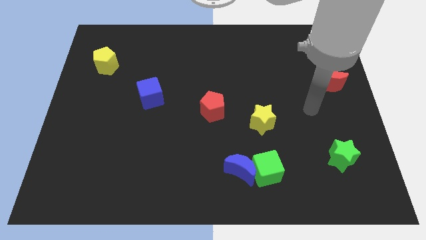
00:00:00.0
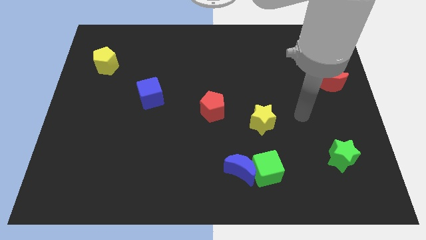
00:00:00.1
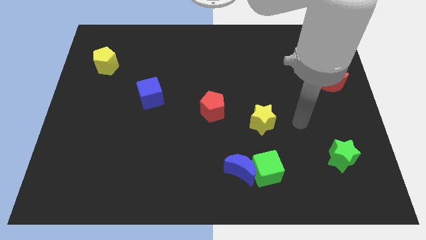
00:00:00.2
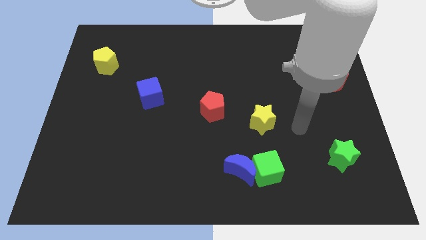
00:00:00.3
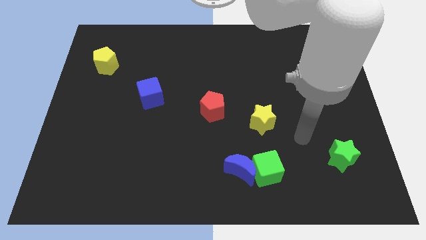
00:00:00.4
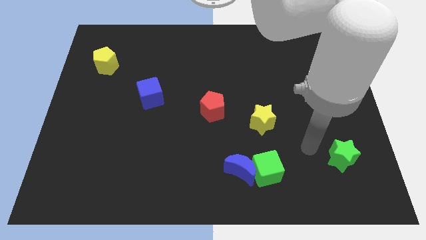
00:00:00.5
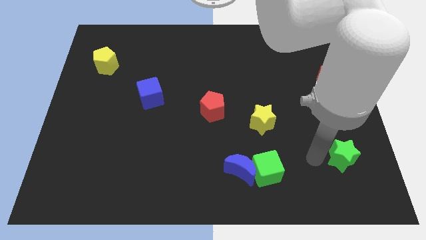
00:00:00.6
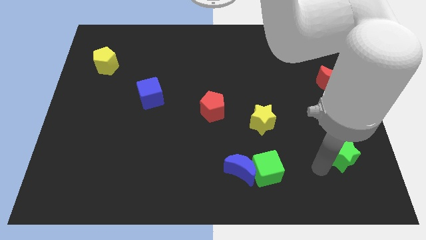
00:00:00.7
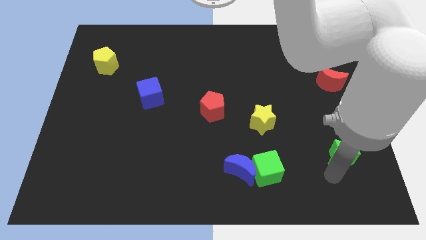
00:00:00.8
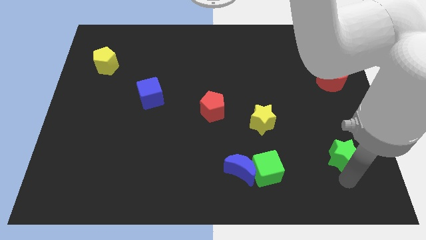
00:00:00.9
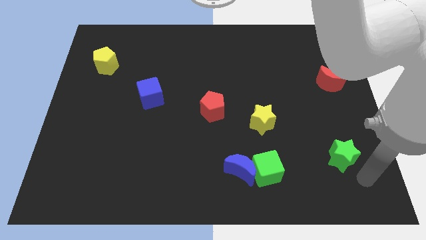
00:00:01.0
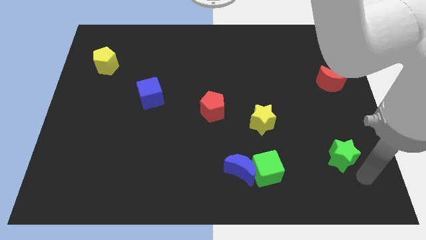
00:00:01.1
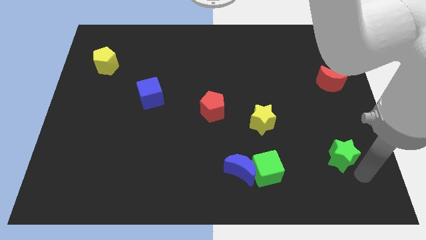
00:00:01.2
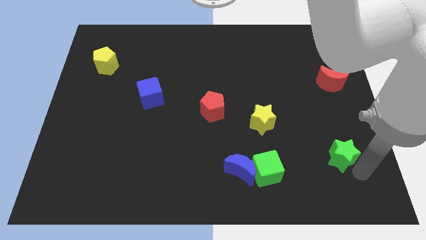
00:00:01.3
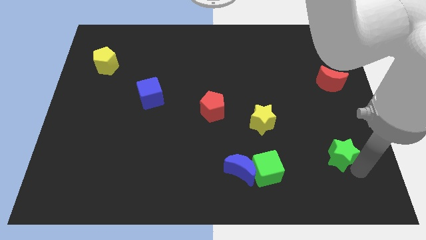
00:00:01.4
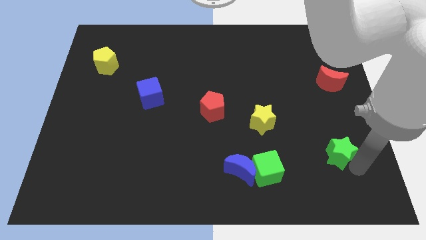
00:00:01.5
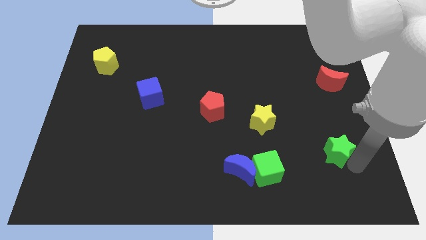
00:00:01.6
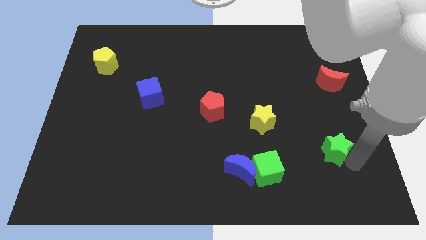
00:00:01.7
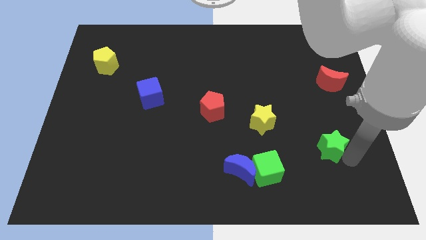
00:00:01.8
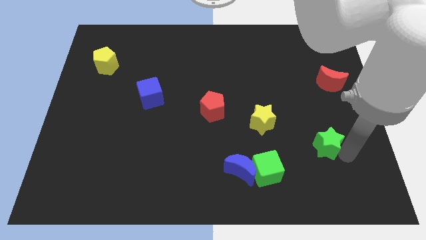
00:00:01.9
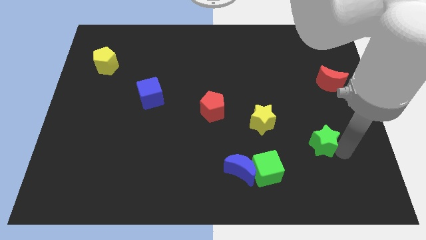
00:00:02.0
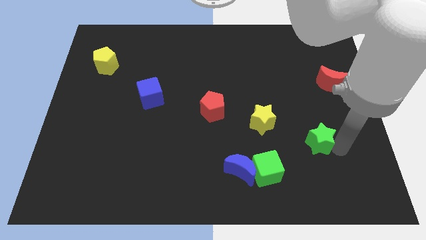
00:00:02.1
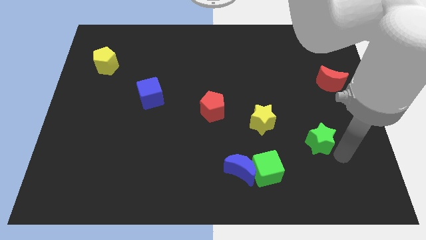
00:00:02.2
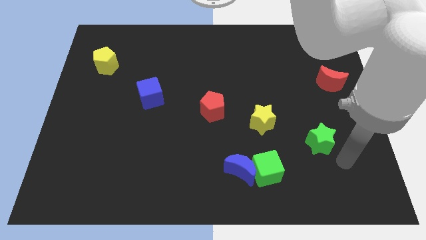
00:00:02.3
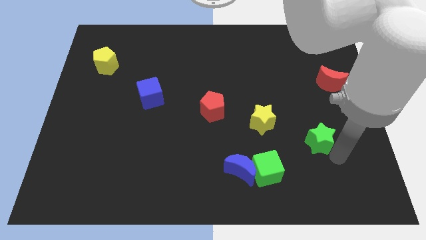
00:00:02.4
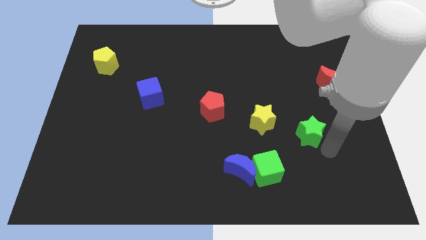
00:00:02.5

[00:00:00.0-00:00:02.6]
push the green star up and to the left diagonally a little

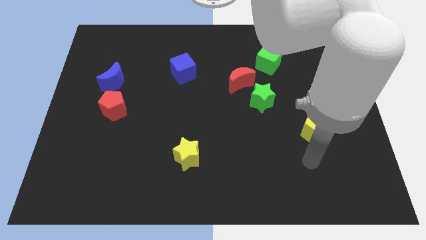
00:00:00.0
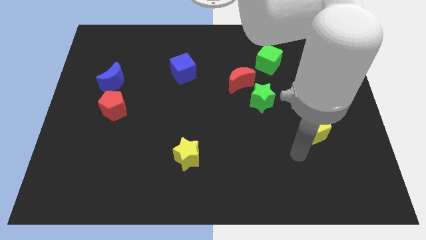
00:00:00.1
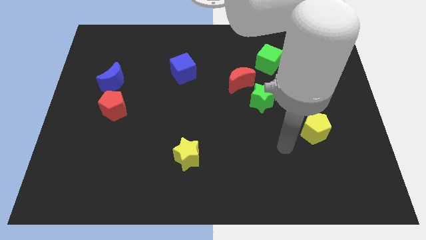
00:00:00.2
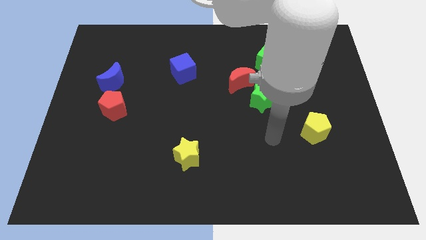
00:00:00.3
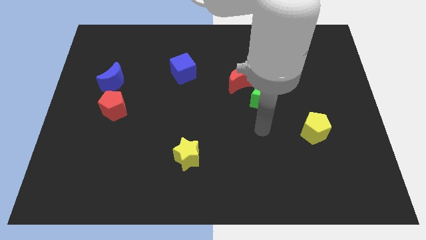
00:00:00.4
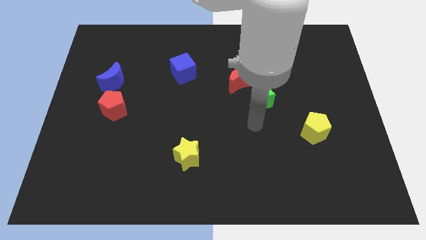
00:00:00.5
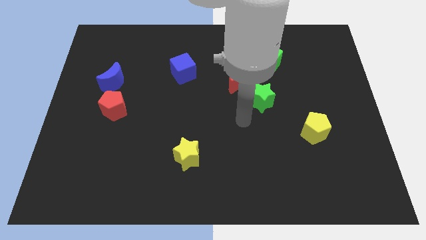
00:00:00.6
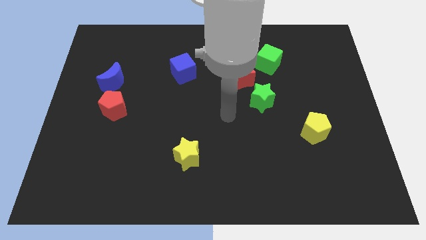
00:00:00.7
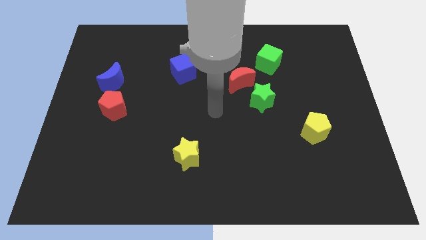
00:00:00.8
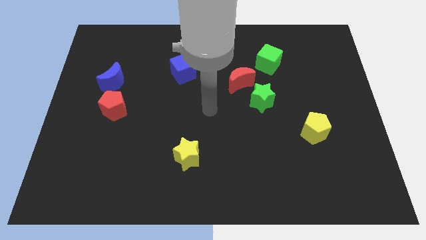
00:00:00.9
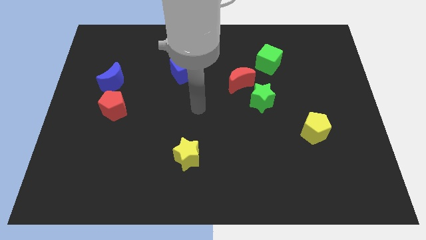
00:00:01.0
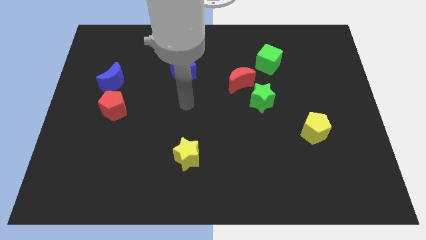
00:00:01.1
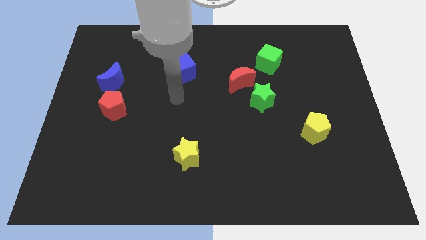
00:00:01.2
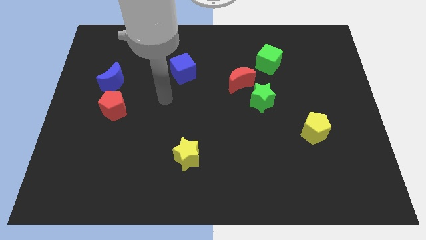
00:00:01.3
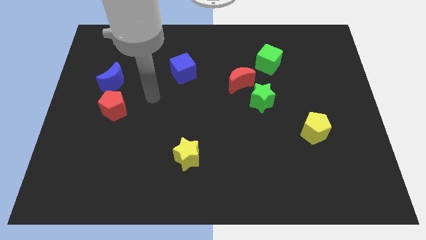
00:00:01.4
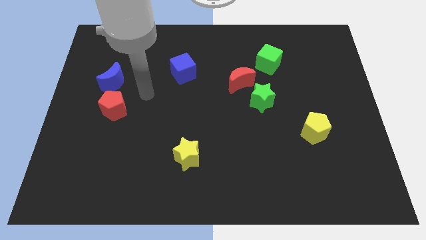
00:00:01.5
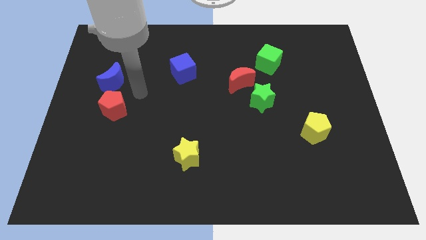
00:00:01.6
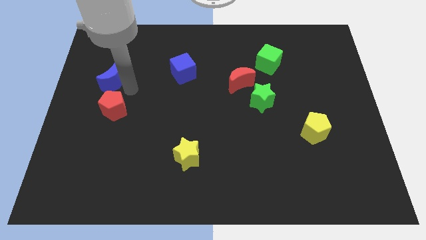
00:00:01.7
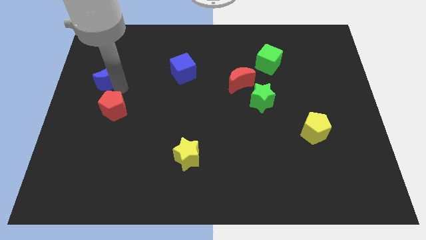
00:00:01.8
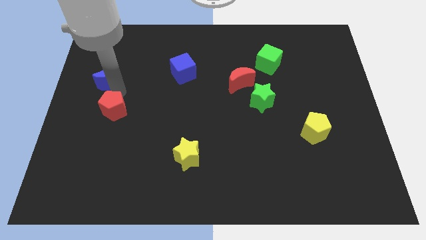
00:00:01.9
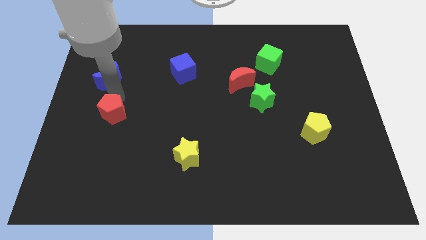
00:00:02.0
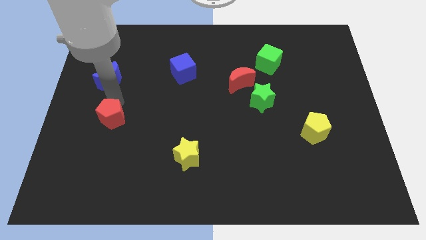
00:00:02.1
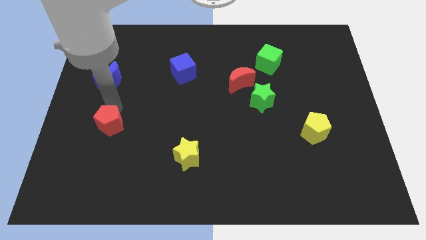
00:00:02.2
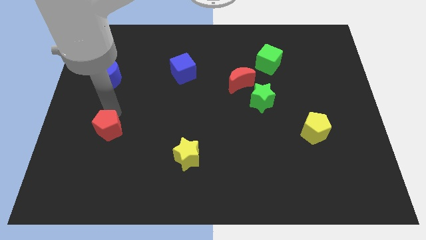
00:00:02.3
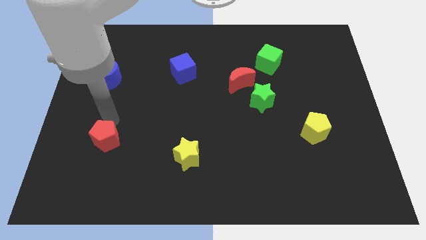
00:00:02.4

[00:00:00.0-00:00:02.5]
push the red pentagon down a little

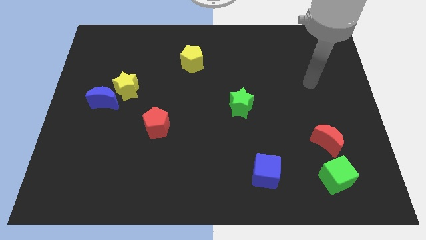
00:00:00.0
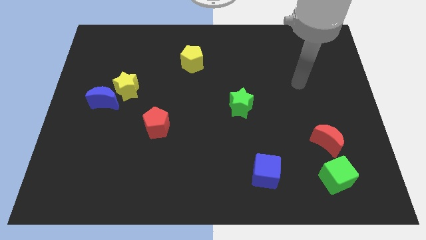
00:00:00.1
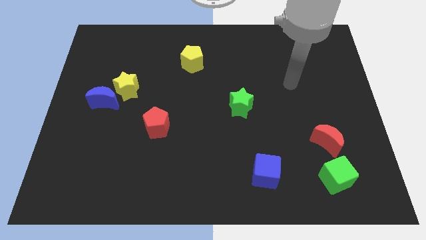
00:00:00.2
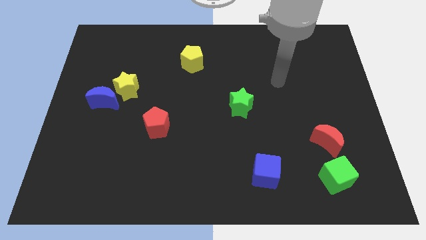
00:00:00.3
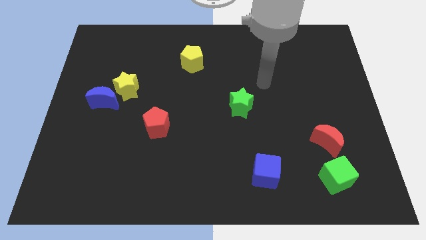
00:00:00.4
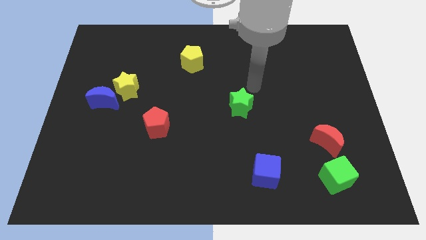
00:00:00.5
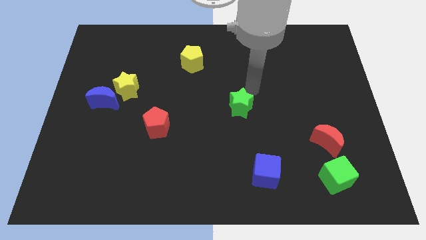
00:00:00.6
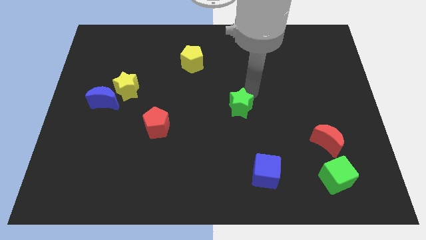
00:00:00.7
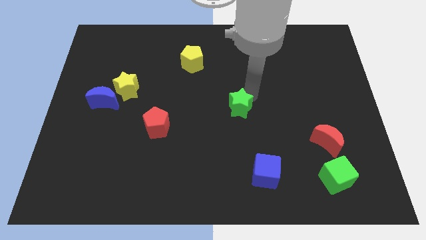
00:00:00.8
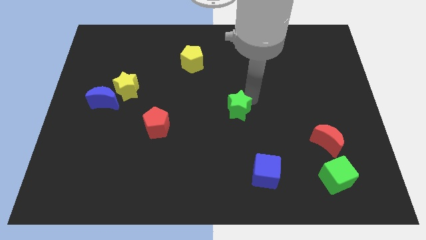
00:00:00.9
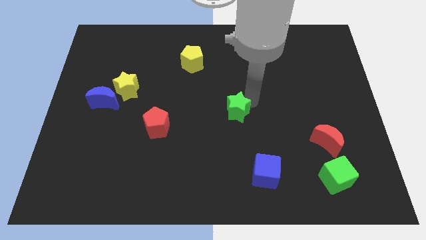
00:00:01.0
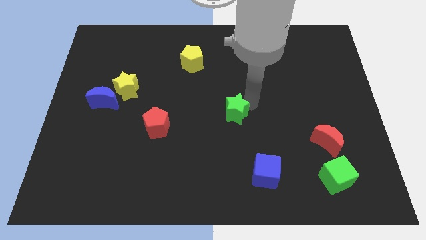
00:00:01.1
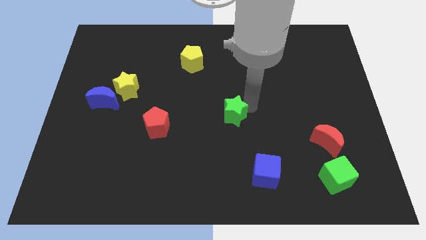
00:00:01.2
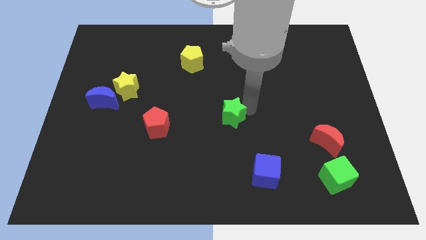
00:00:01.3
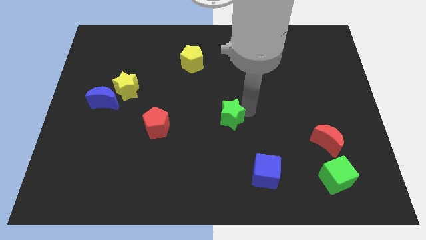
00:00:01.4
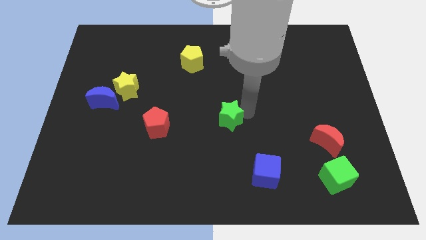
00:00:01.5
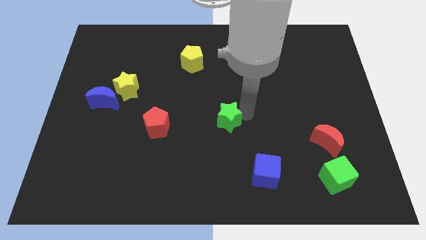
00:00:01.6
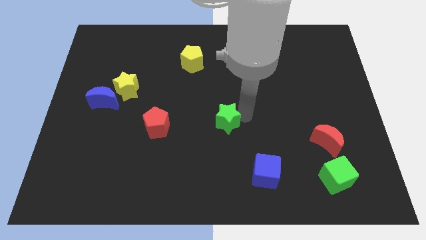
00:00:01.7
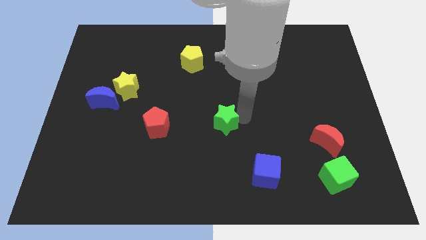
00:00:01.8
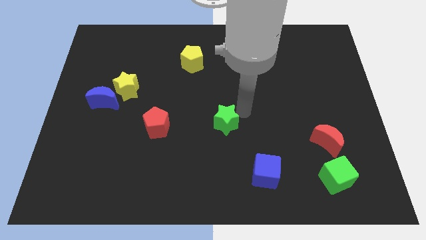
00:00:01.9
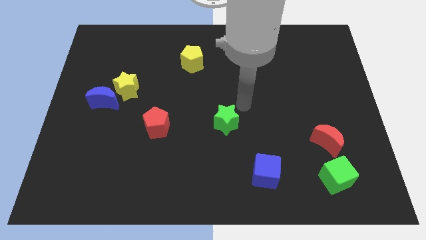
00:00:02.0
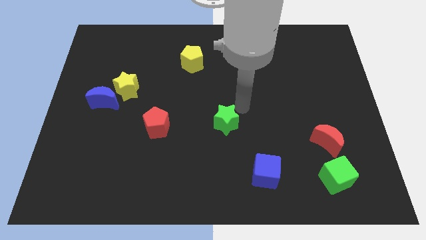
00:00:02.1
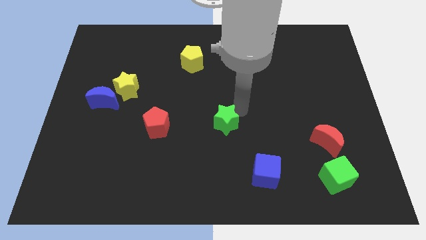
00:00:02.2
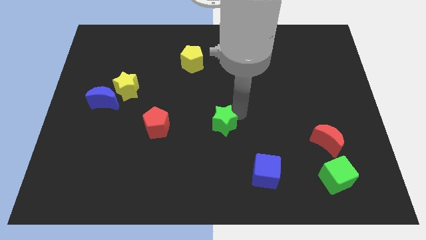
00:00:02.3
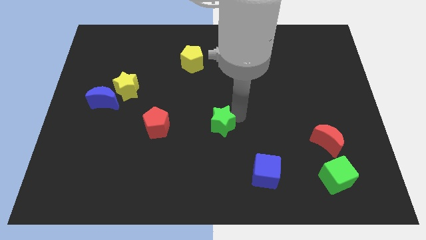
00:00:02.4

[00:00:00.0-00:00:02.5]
push the green star downwards and to the left diagonally a bit

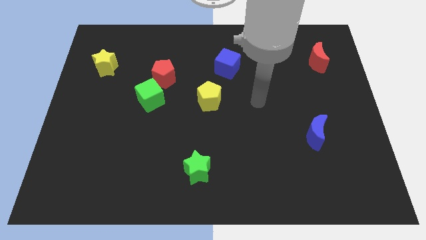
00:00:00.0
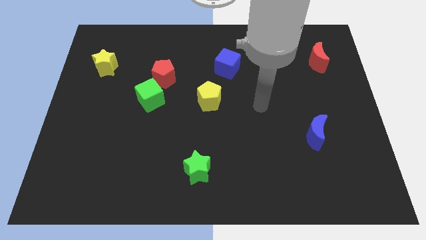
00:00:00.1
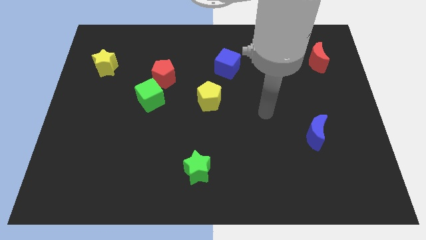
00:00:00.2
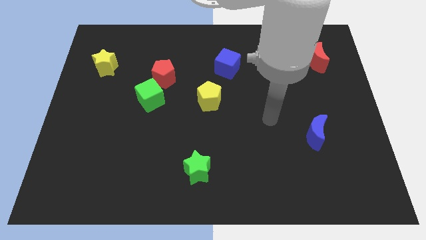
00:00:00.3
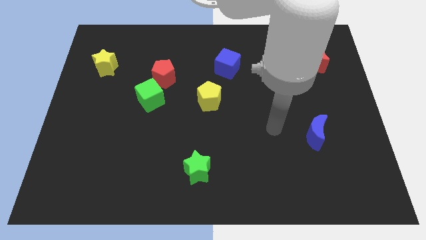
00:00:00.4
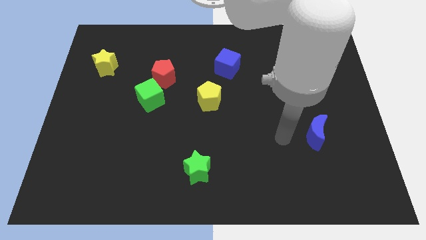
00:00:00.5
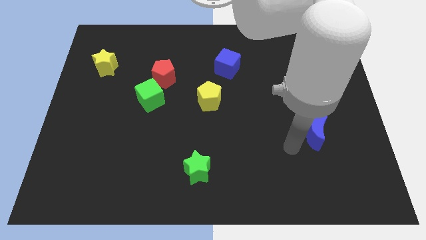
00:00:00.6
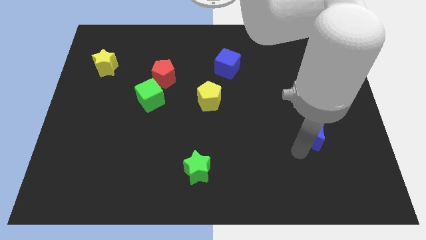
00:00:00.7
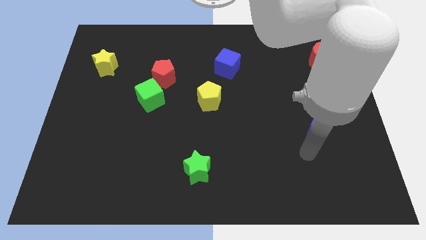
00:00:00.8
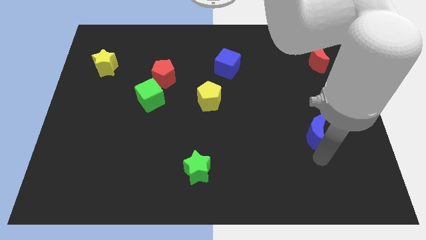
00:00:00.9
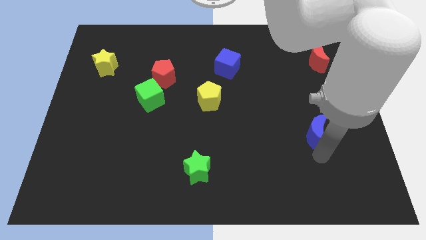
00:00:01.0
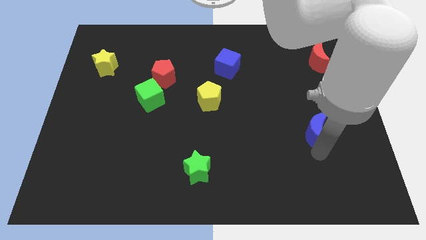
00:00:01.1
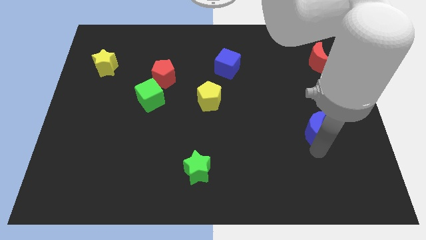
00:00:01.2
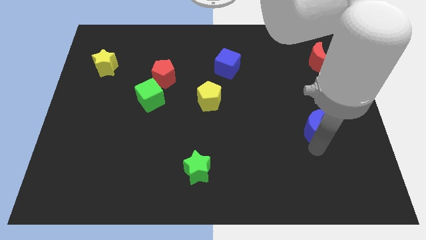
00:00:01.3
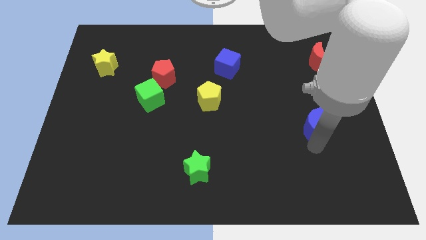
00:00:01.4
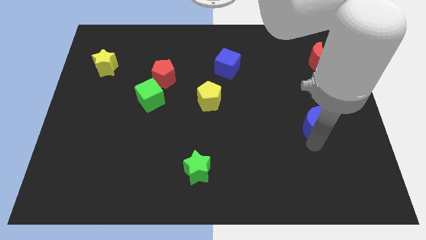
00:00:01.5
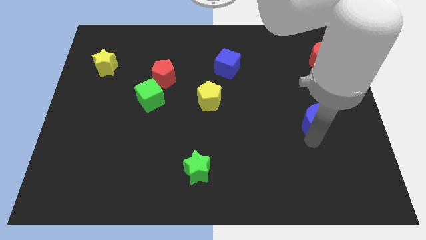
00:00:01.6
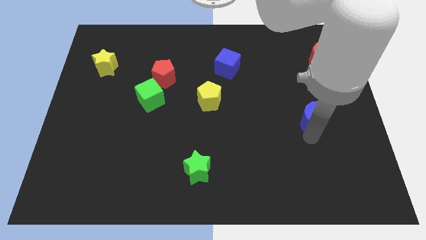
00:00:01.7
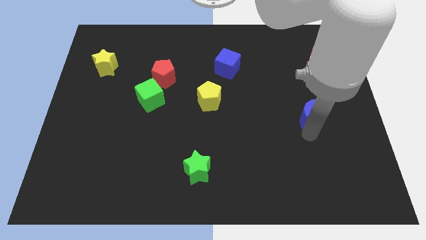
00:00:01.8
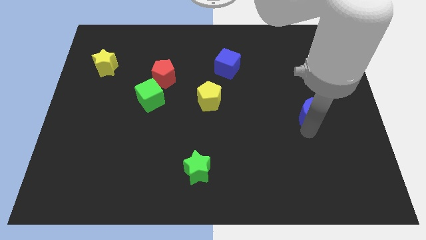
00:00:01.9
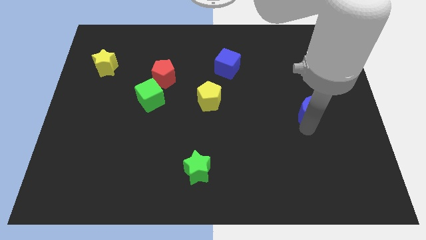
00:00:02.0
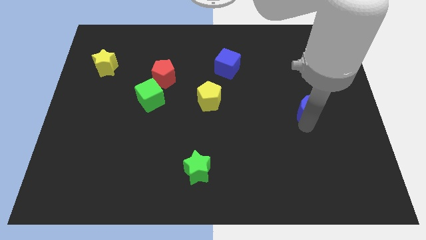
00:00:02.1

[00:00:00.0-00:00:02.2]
slightly move the blue moon upwards
